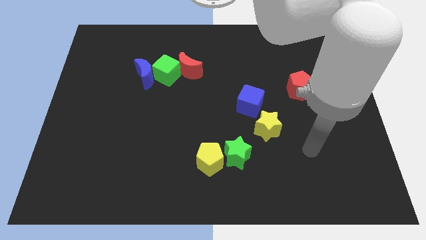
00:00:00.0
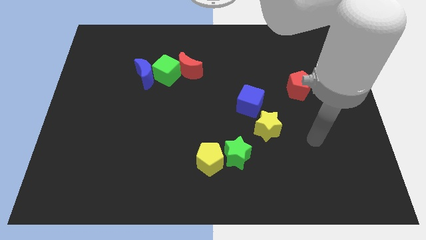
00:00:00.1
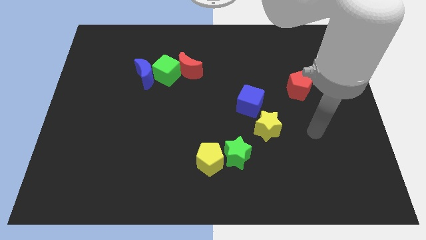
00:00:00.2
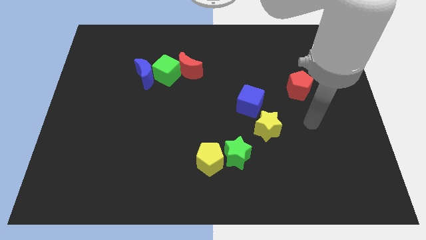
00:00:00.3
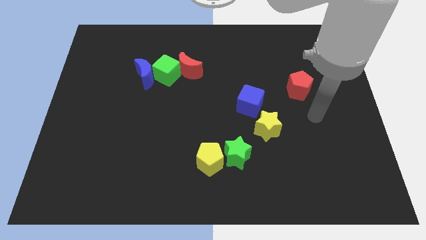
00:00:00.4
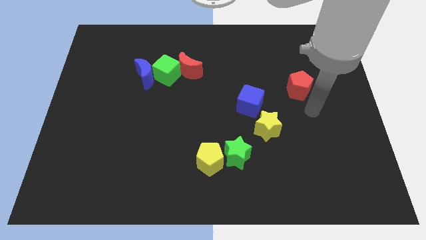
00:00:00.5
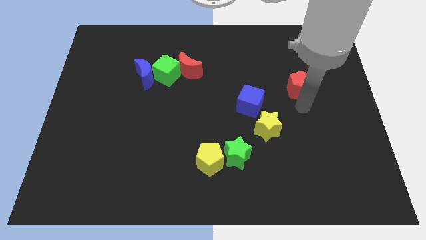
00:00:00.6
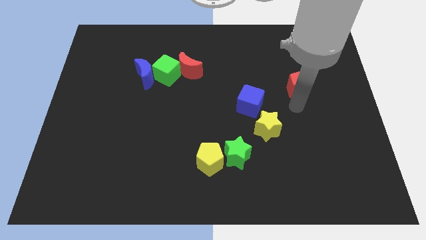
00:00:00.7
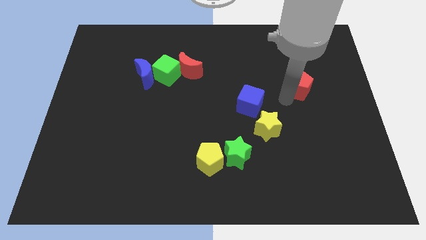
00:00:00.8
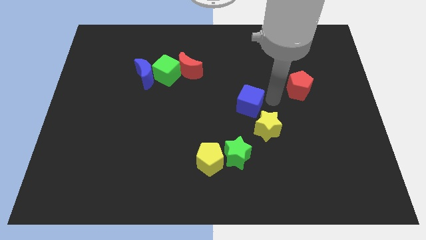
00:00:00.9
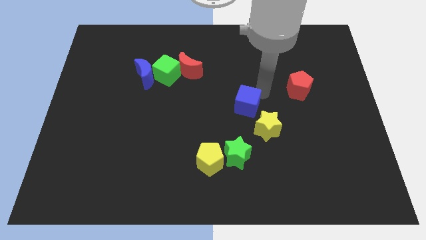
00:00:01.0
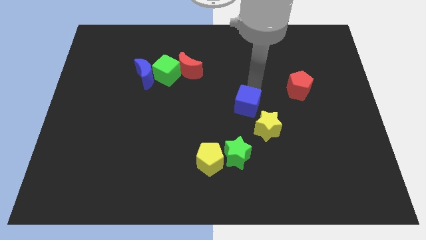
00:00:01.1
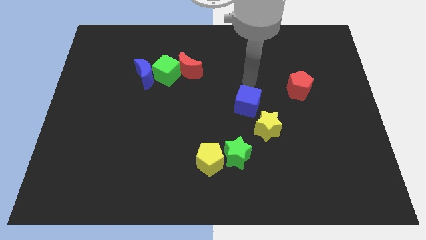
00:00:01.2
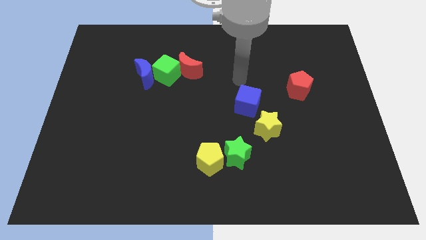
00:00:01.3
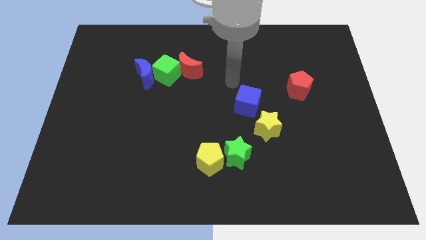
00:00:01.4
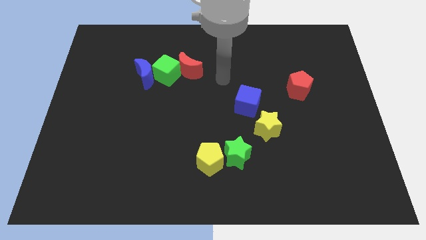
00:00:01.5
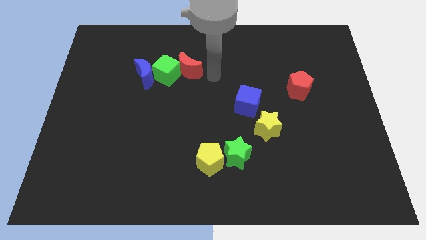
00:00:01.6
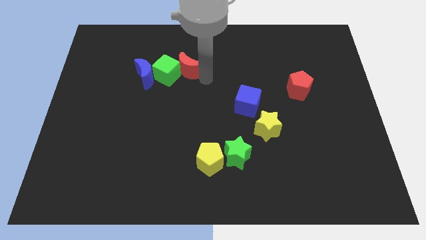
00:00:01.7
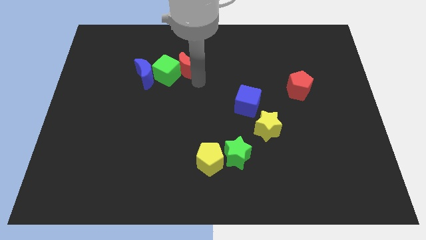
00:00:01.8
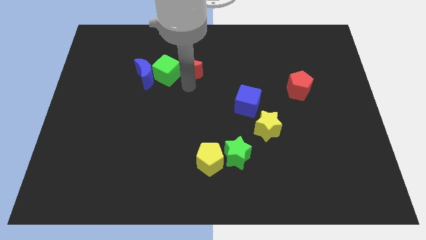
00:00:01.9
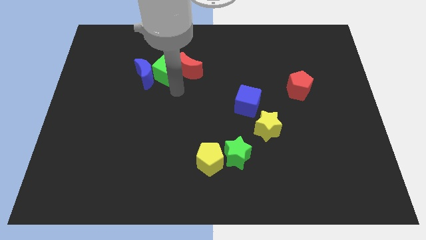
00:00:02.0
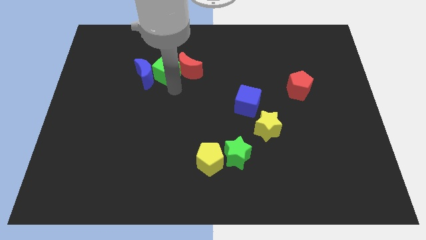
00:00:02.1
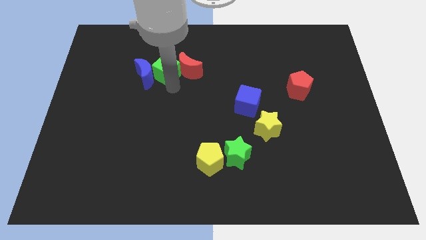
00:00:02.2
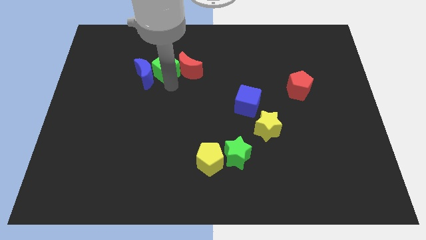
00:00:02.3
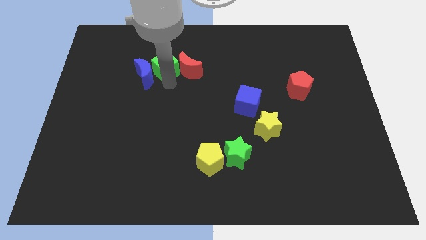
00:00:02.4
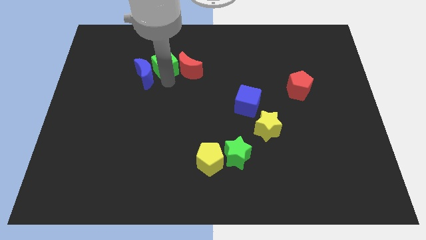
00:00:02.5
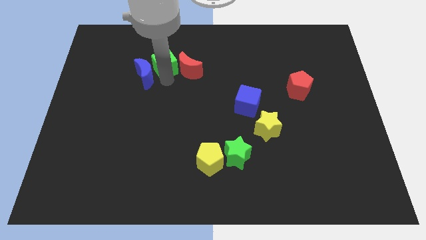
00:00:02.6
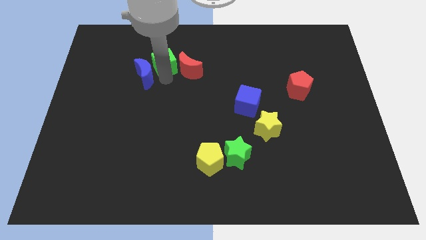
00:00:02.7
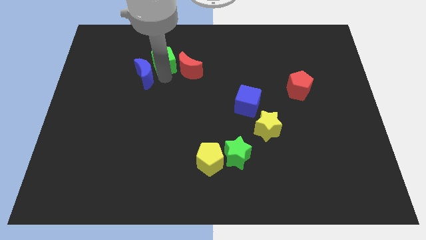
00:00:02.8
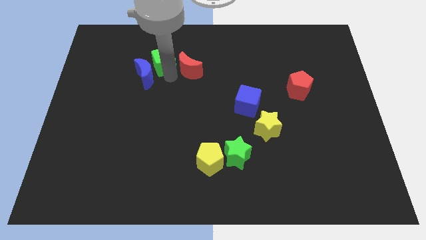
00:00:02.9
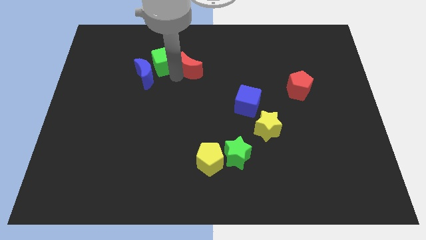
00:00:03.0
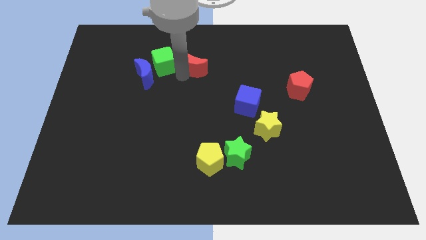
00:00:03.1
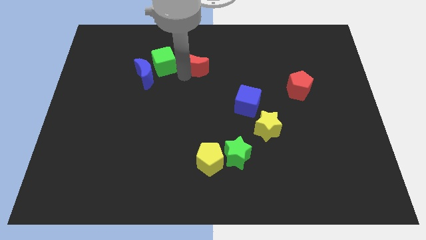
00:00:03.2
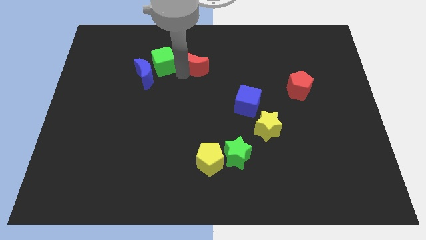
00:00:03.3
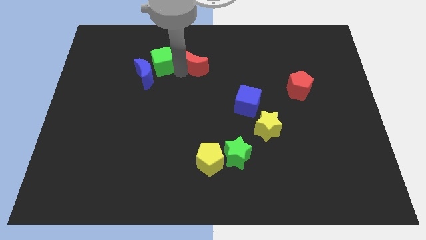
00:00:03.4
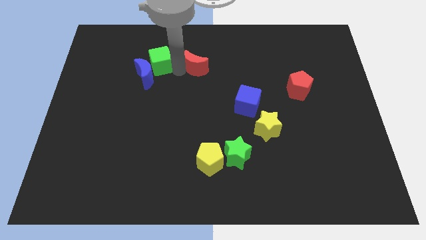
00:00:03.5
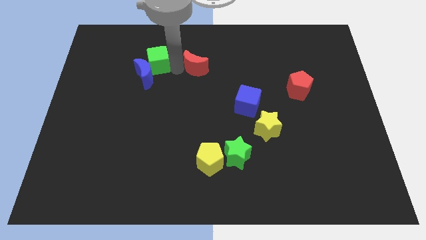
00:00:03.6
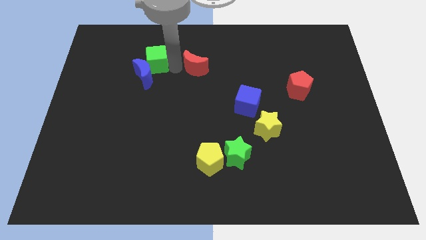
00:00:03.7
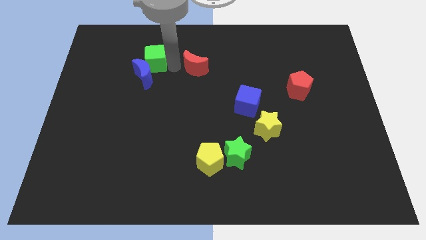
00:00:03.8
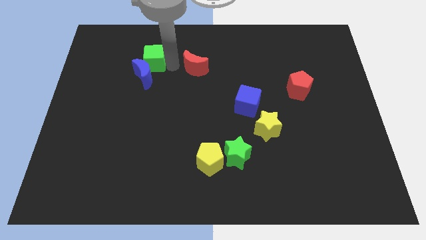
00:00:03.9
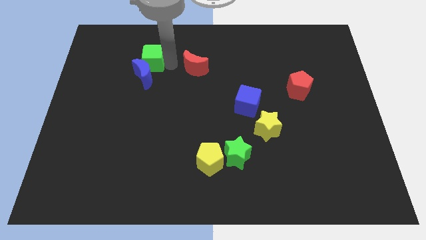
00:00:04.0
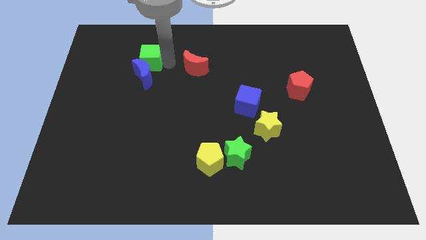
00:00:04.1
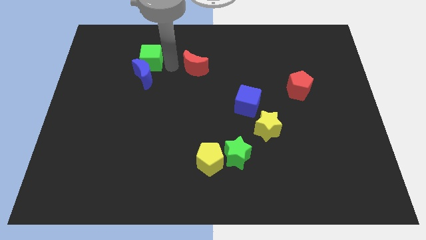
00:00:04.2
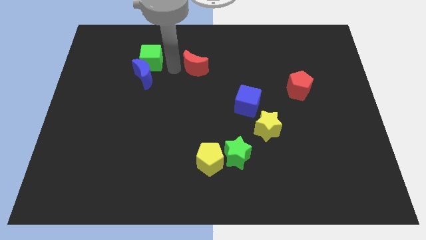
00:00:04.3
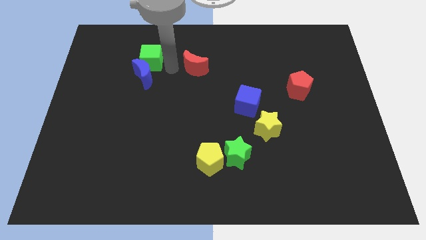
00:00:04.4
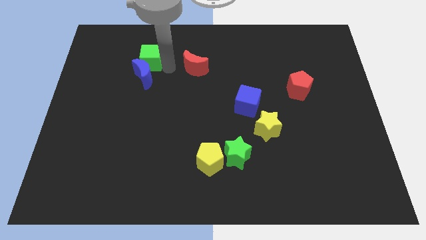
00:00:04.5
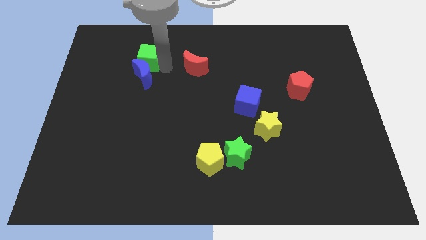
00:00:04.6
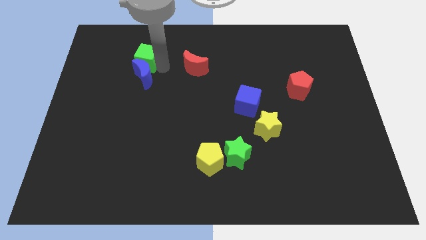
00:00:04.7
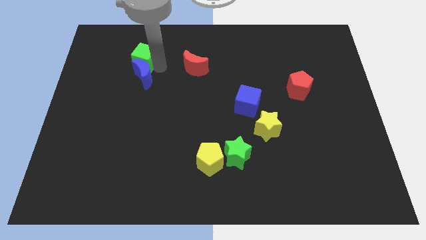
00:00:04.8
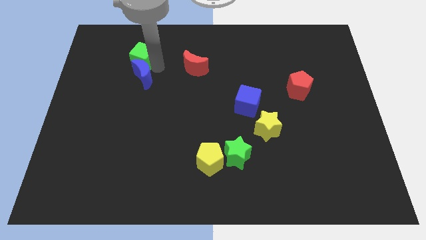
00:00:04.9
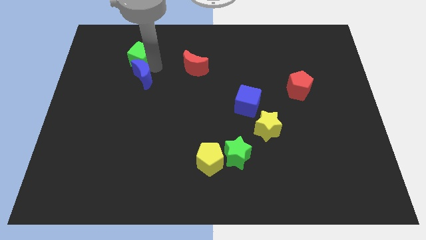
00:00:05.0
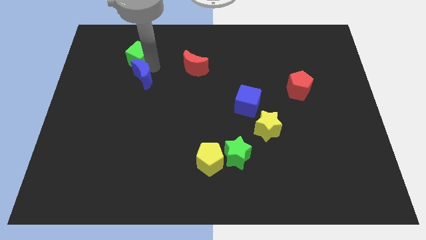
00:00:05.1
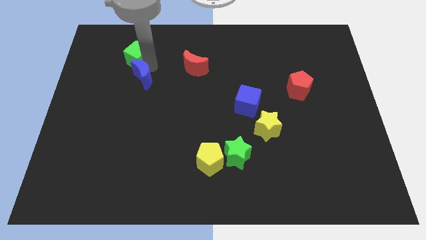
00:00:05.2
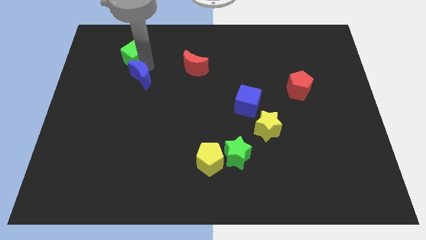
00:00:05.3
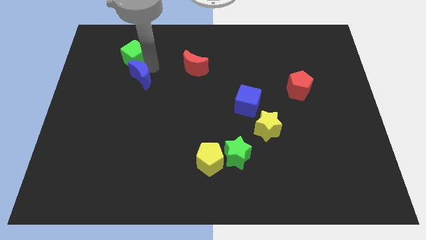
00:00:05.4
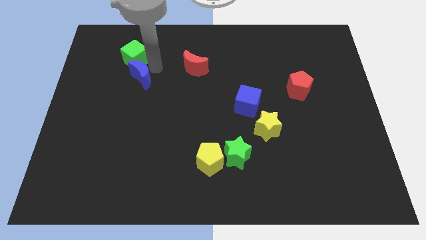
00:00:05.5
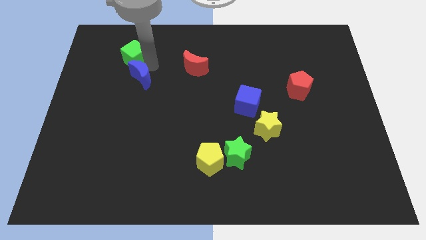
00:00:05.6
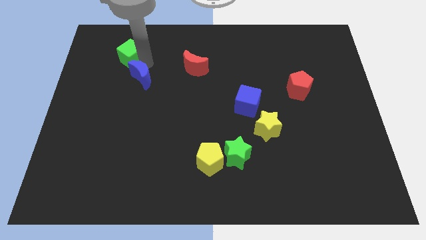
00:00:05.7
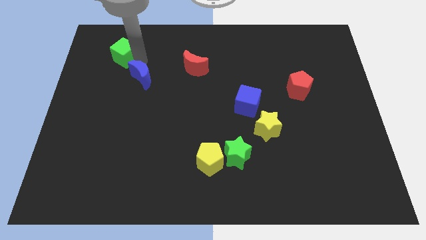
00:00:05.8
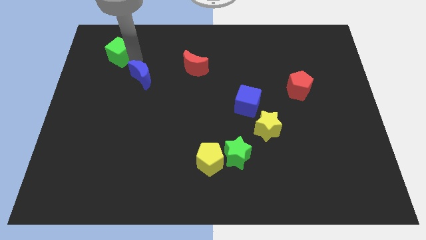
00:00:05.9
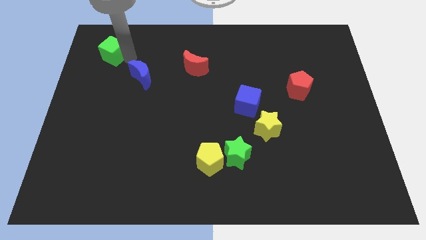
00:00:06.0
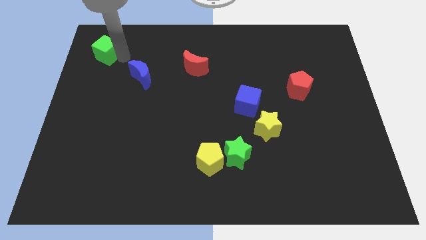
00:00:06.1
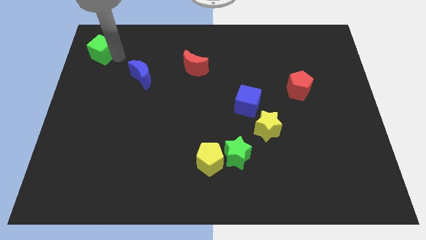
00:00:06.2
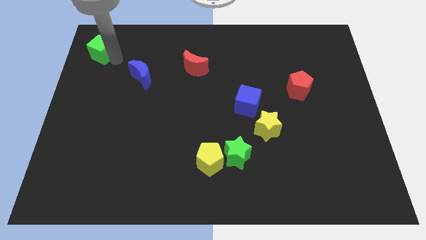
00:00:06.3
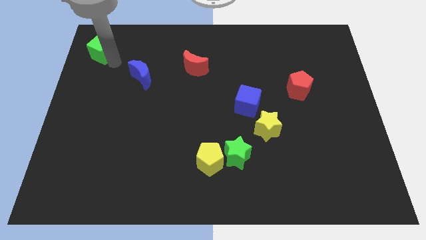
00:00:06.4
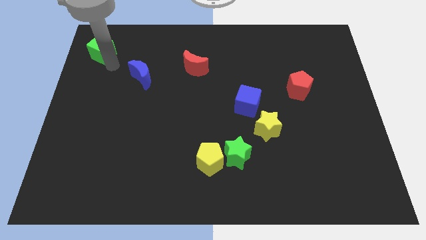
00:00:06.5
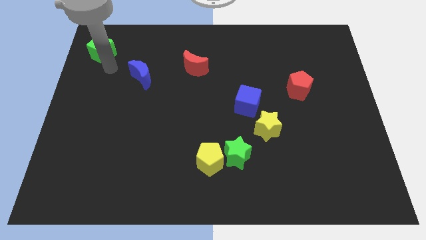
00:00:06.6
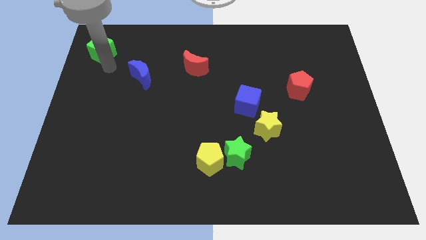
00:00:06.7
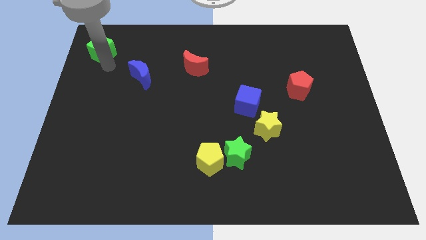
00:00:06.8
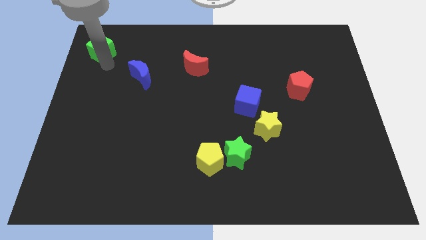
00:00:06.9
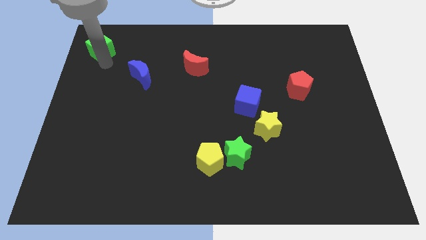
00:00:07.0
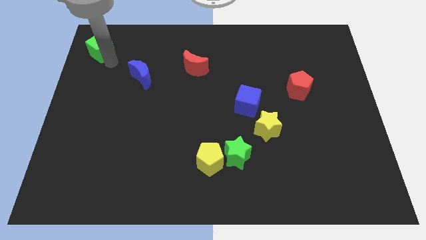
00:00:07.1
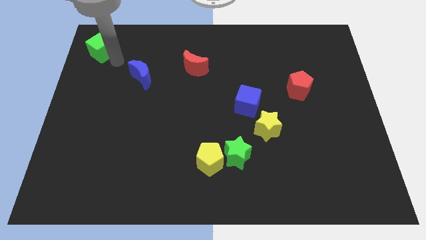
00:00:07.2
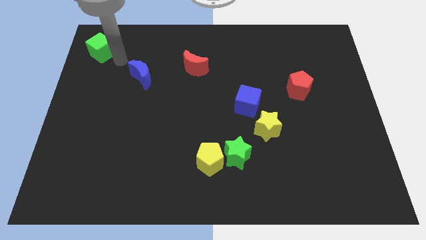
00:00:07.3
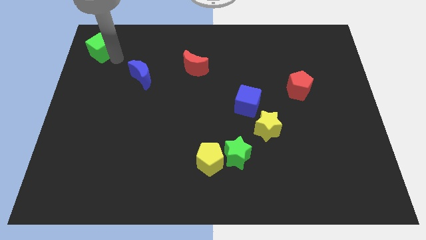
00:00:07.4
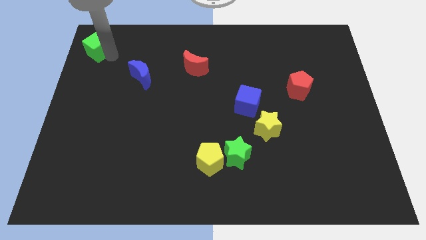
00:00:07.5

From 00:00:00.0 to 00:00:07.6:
put the green cube to the upper left corner

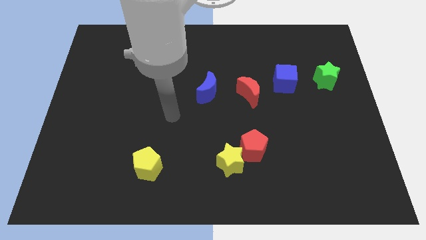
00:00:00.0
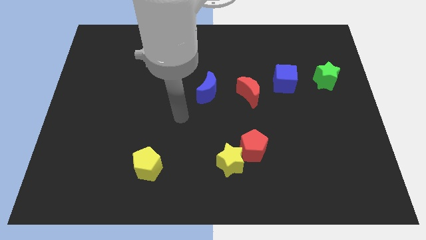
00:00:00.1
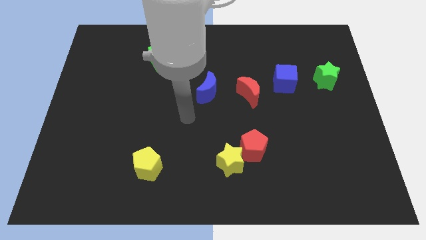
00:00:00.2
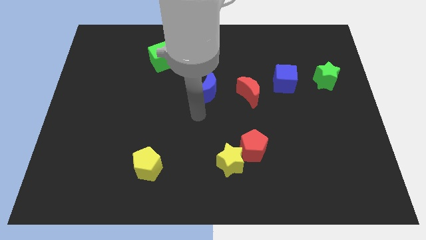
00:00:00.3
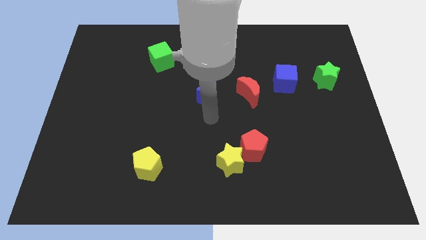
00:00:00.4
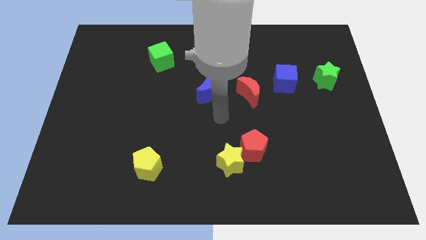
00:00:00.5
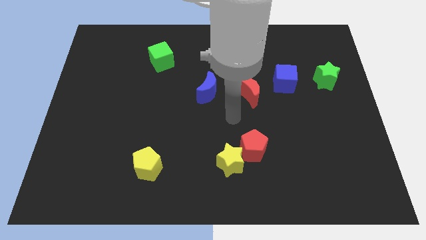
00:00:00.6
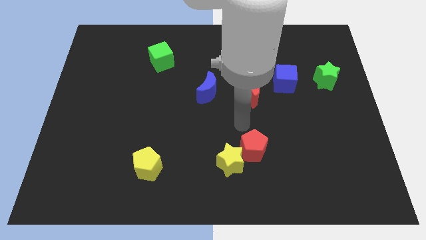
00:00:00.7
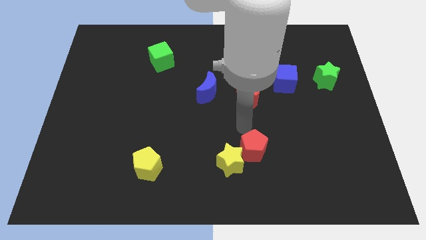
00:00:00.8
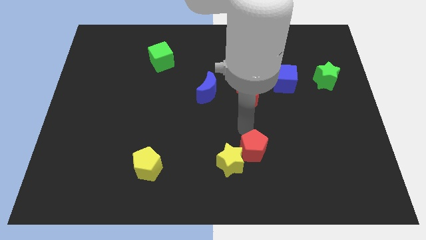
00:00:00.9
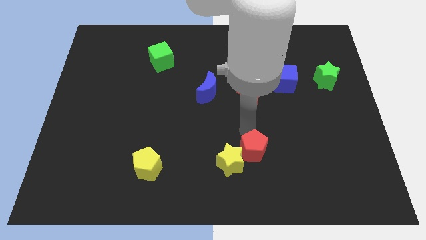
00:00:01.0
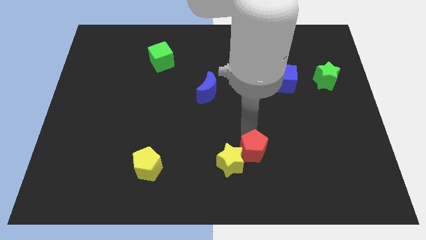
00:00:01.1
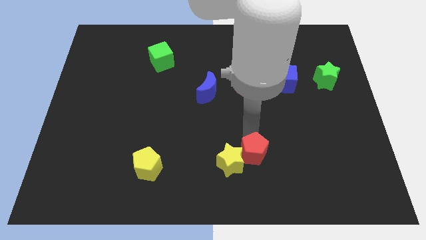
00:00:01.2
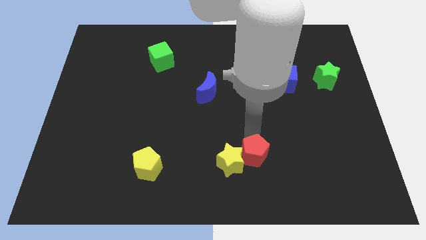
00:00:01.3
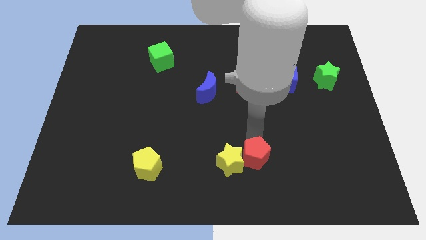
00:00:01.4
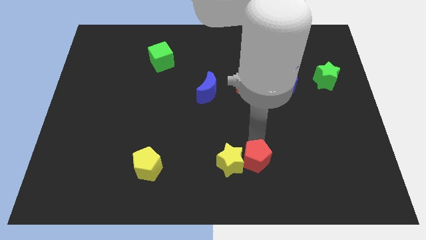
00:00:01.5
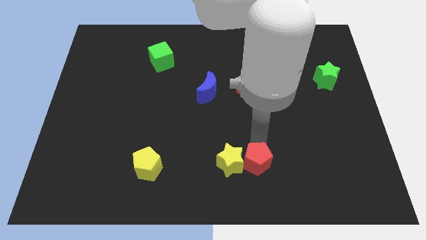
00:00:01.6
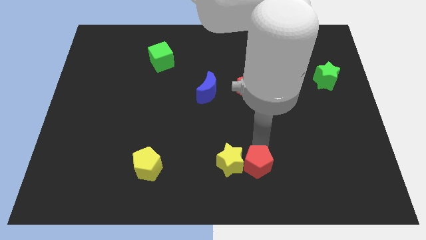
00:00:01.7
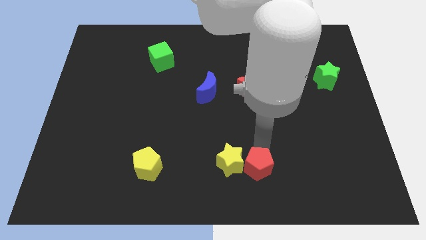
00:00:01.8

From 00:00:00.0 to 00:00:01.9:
push the red pentagon to the bottom
